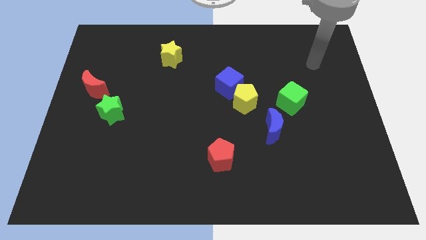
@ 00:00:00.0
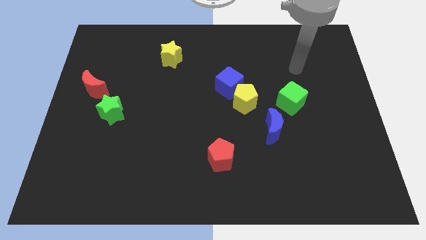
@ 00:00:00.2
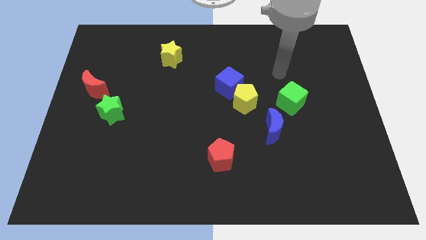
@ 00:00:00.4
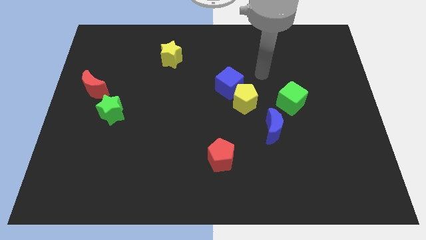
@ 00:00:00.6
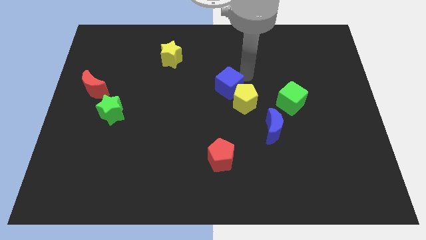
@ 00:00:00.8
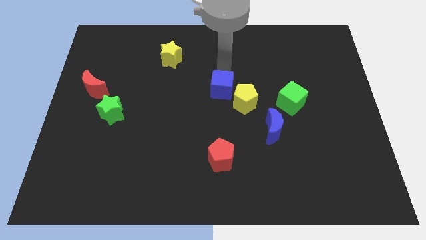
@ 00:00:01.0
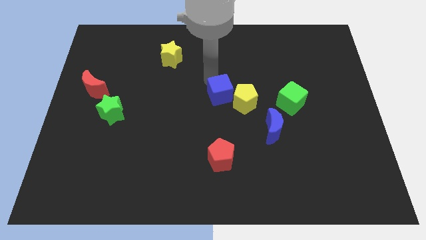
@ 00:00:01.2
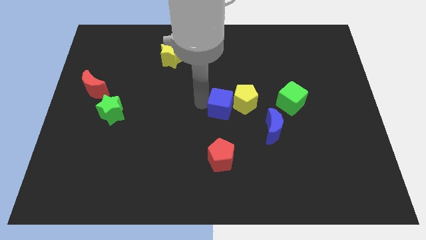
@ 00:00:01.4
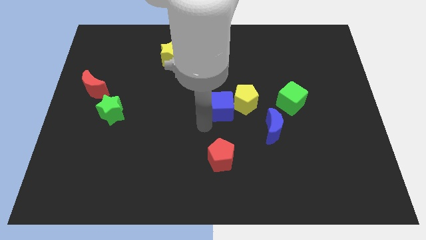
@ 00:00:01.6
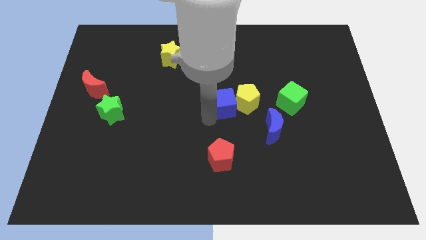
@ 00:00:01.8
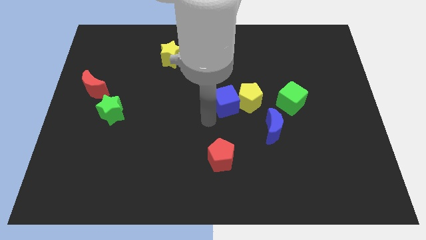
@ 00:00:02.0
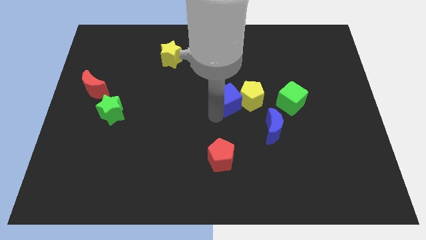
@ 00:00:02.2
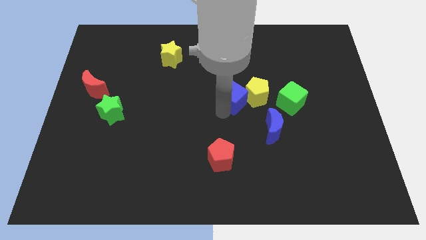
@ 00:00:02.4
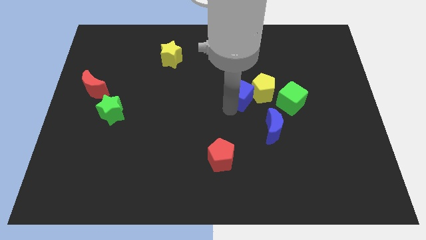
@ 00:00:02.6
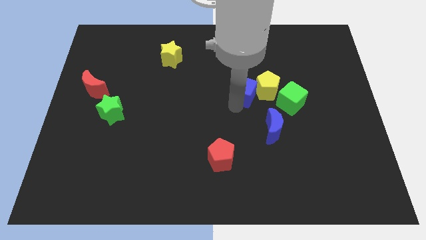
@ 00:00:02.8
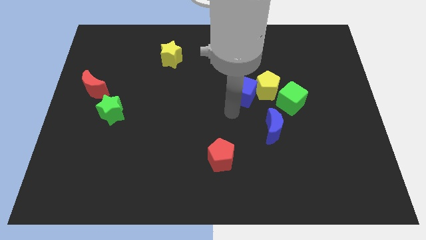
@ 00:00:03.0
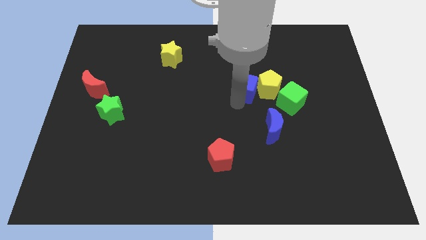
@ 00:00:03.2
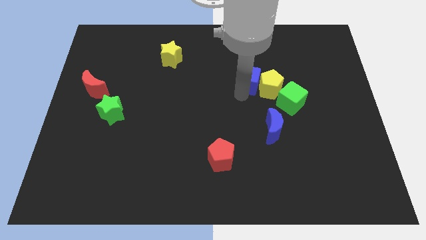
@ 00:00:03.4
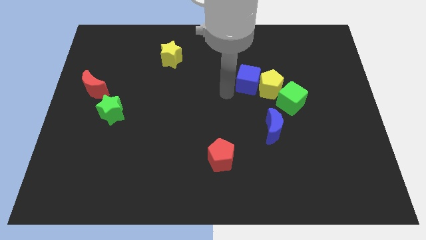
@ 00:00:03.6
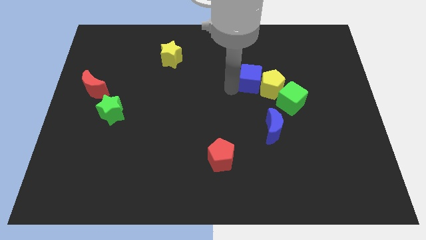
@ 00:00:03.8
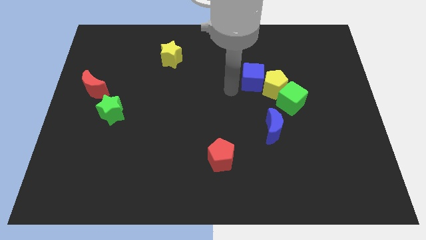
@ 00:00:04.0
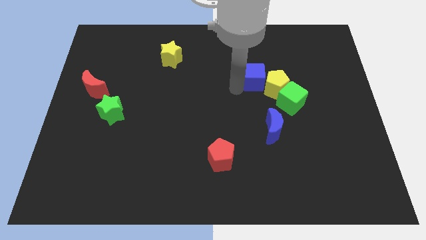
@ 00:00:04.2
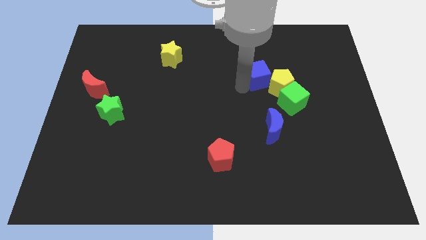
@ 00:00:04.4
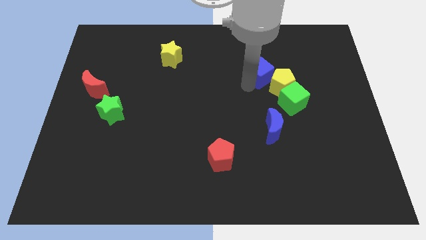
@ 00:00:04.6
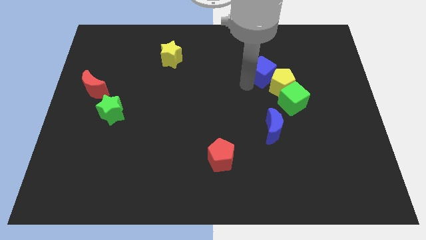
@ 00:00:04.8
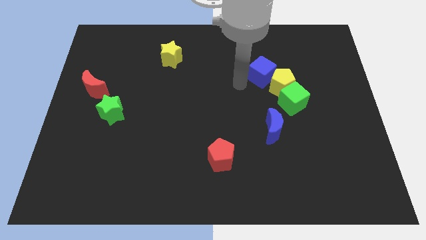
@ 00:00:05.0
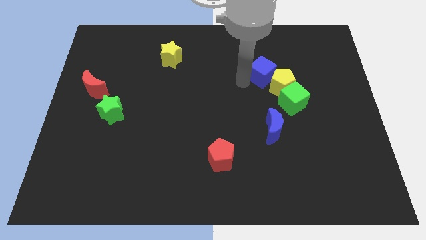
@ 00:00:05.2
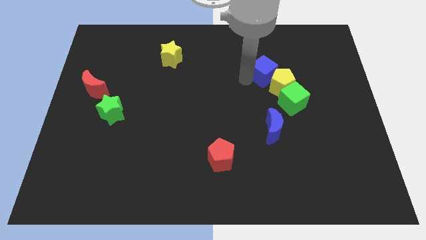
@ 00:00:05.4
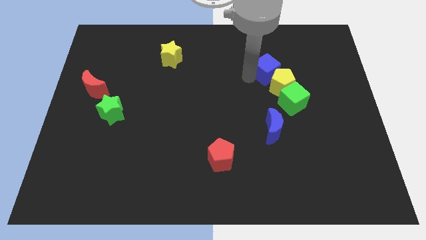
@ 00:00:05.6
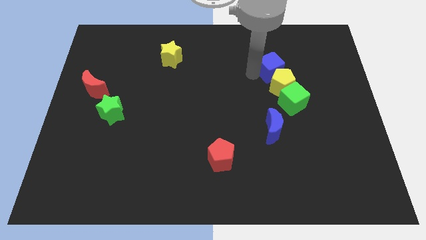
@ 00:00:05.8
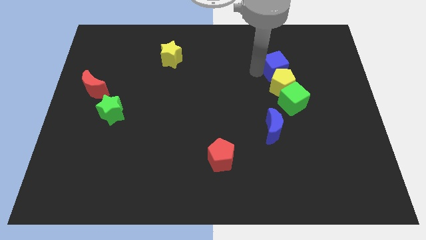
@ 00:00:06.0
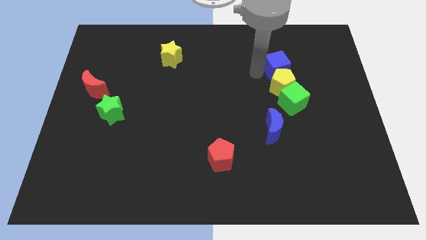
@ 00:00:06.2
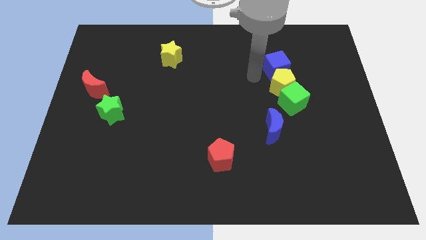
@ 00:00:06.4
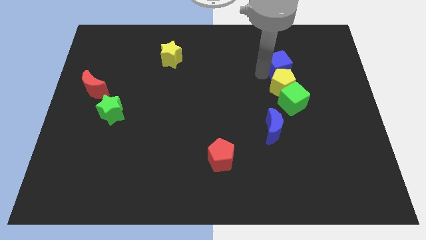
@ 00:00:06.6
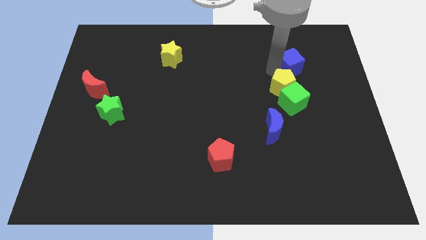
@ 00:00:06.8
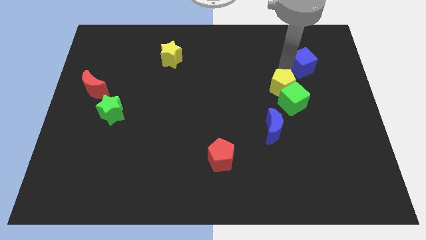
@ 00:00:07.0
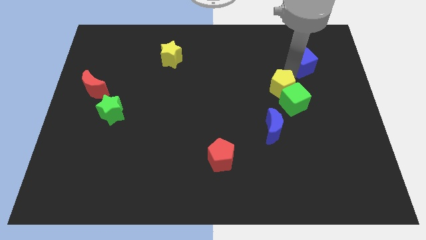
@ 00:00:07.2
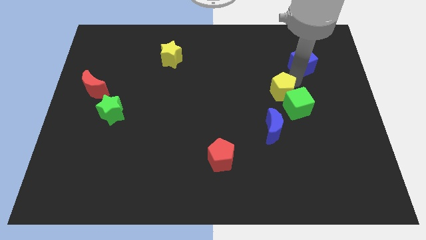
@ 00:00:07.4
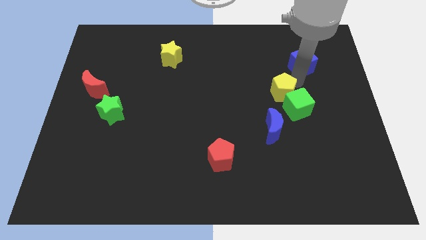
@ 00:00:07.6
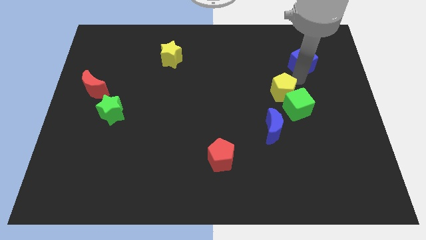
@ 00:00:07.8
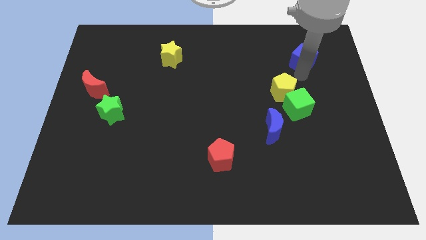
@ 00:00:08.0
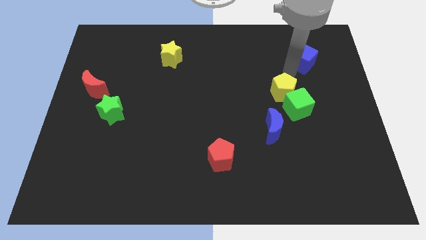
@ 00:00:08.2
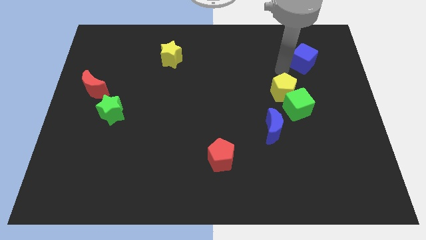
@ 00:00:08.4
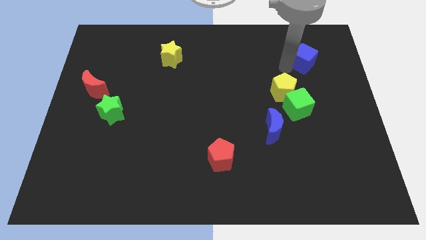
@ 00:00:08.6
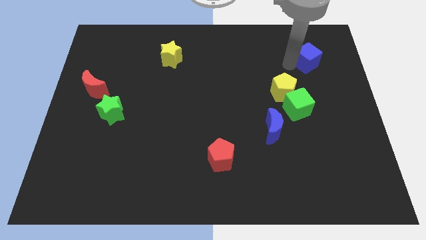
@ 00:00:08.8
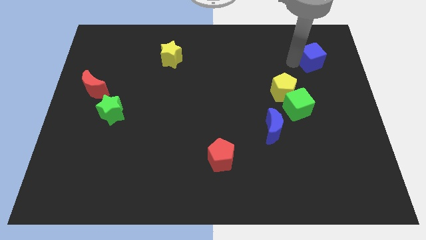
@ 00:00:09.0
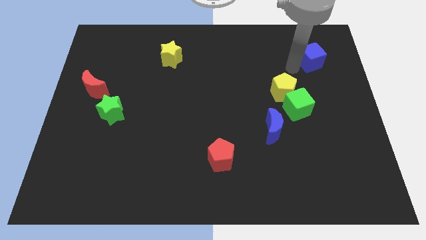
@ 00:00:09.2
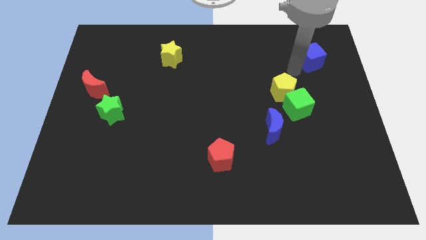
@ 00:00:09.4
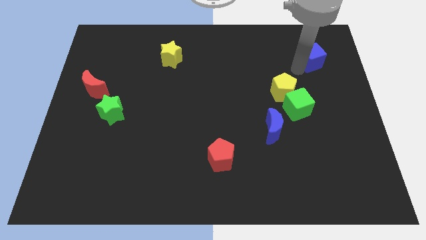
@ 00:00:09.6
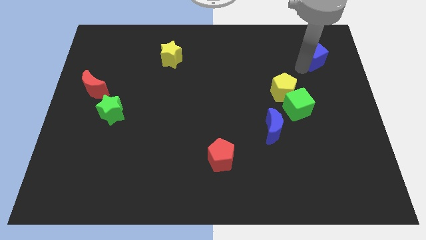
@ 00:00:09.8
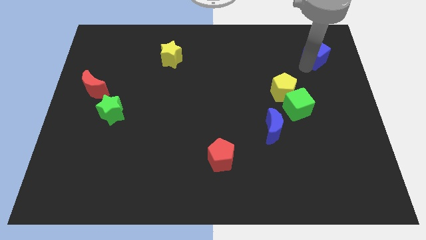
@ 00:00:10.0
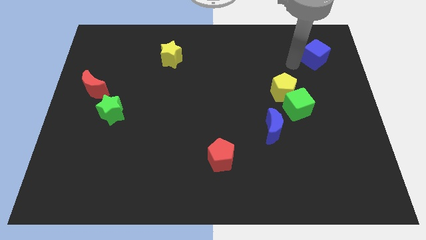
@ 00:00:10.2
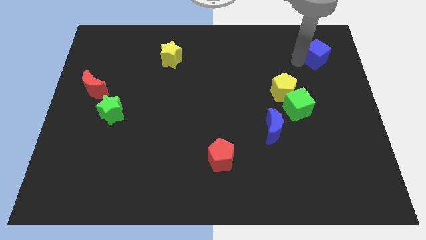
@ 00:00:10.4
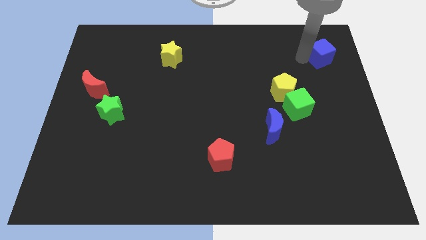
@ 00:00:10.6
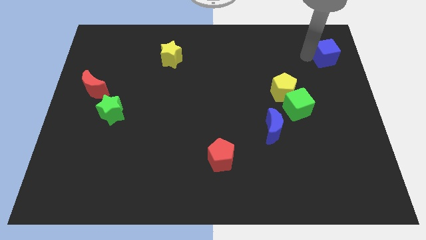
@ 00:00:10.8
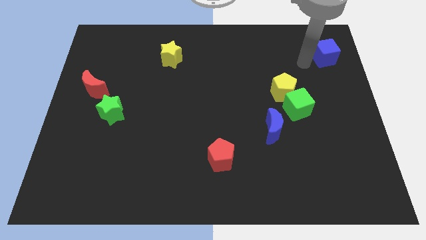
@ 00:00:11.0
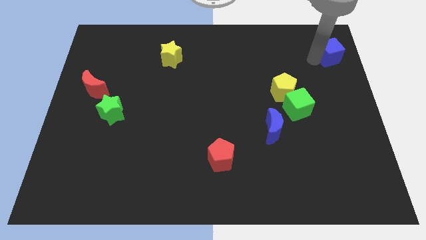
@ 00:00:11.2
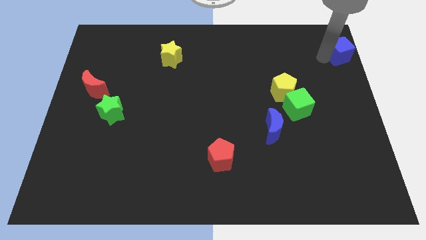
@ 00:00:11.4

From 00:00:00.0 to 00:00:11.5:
move the blue cube to the top right of the board
